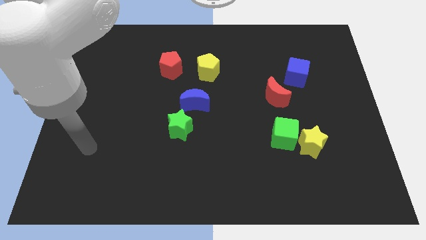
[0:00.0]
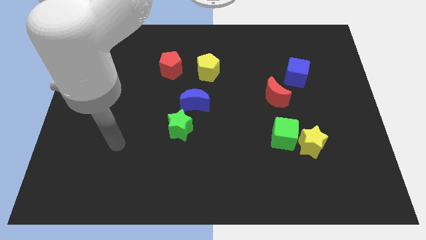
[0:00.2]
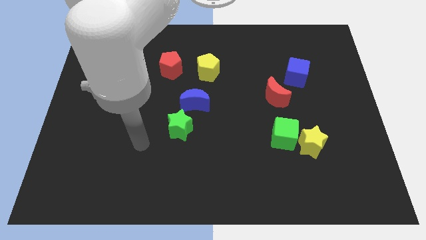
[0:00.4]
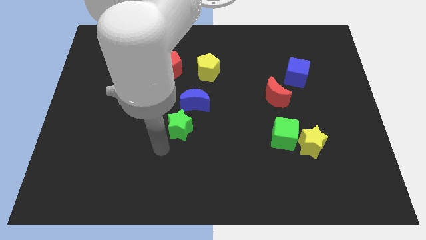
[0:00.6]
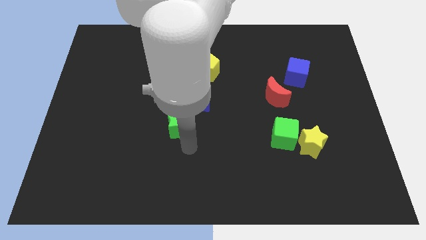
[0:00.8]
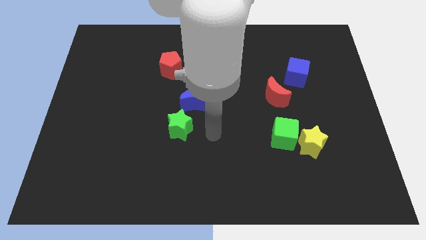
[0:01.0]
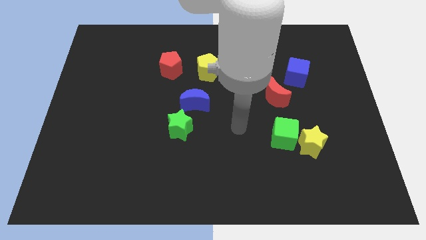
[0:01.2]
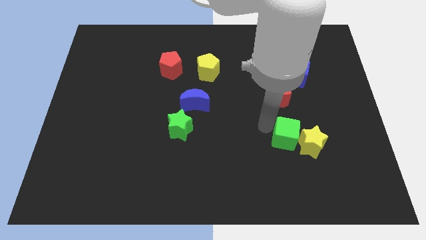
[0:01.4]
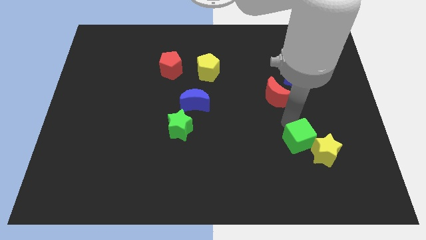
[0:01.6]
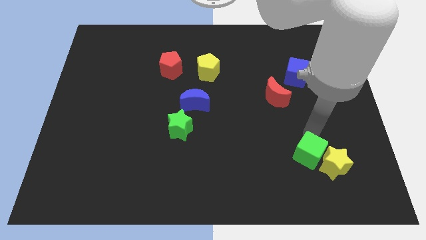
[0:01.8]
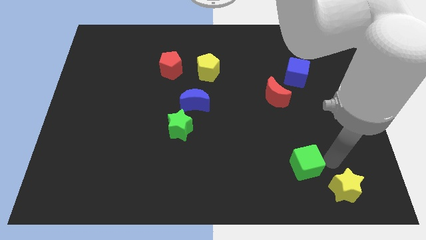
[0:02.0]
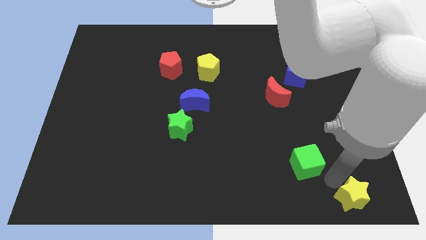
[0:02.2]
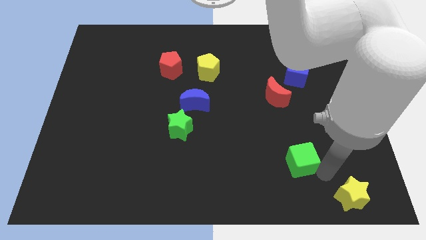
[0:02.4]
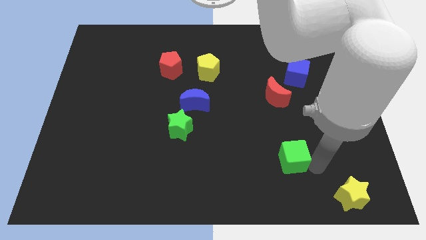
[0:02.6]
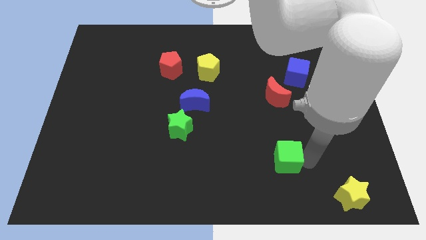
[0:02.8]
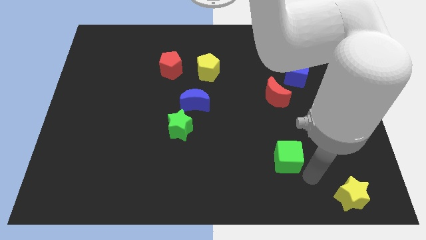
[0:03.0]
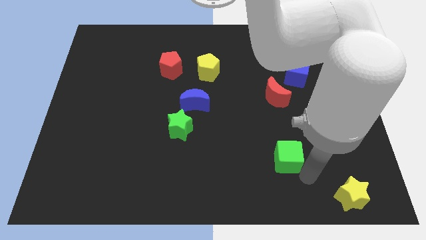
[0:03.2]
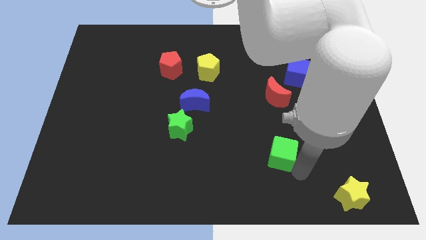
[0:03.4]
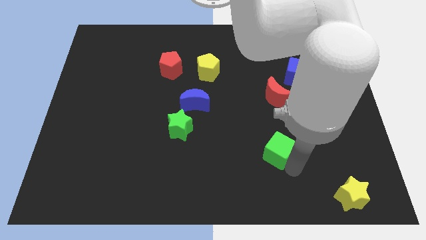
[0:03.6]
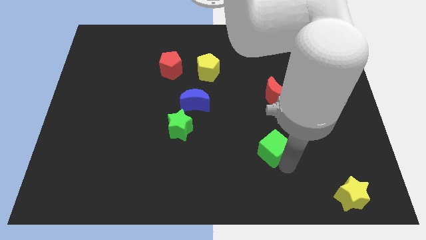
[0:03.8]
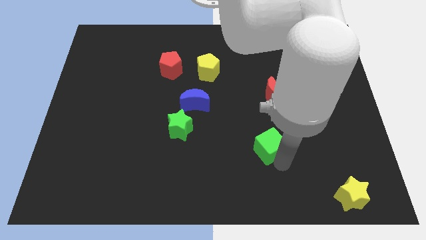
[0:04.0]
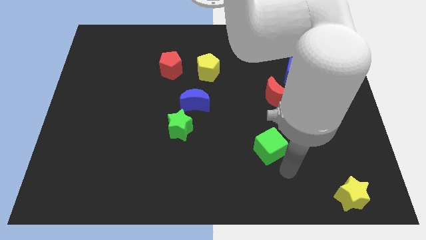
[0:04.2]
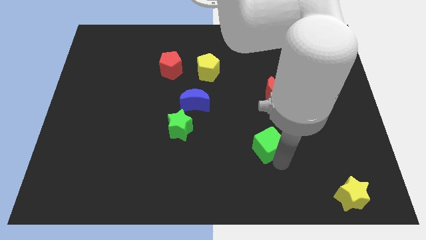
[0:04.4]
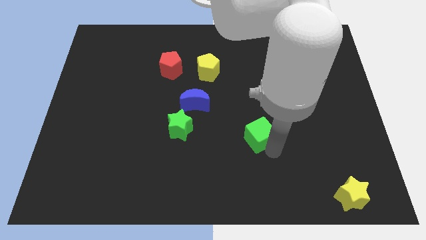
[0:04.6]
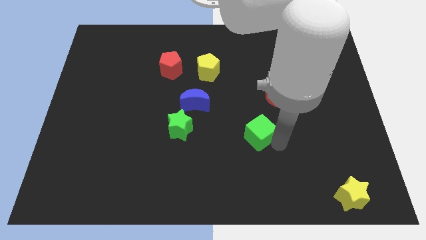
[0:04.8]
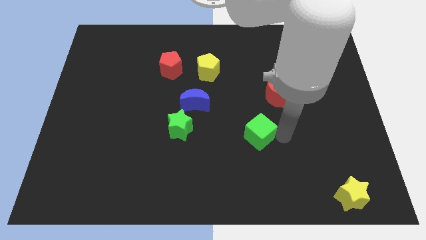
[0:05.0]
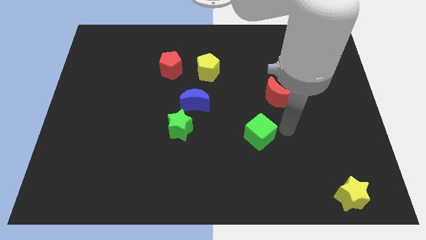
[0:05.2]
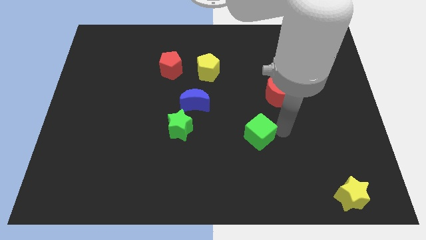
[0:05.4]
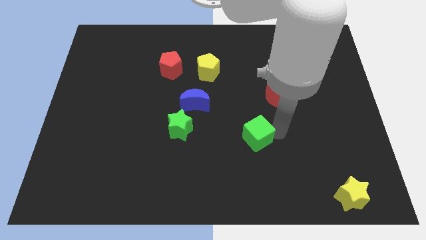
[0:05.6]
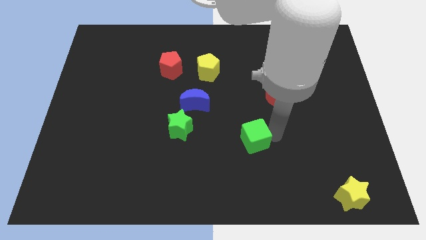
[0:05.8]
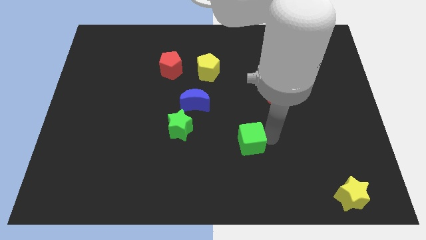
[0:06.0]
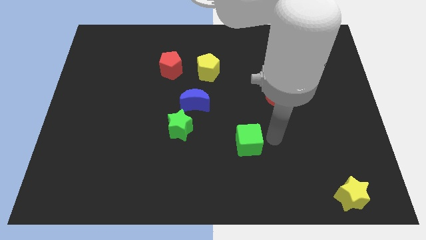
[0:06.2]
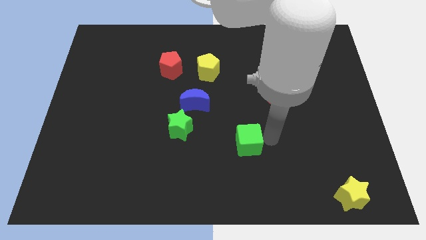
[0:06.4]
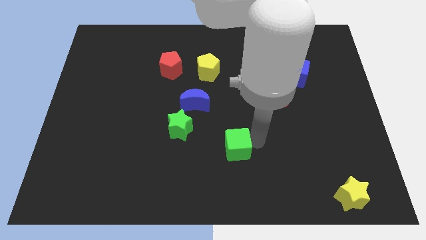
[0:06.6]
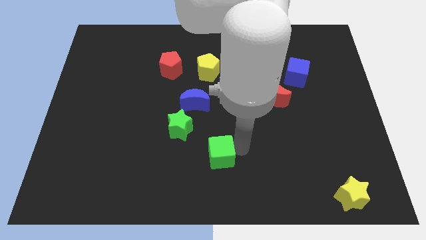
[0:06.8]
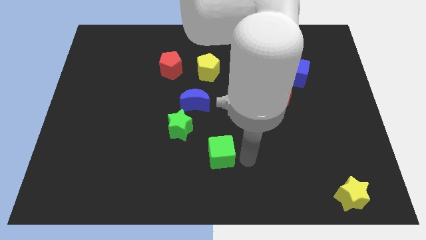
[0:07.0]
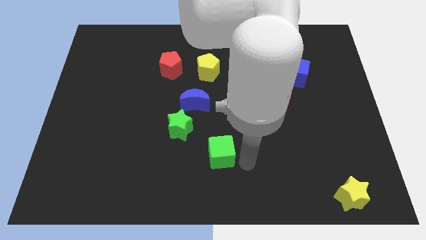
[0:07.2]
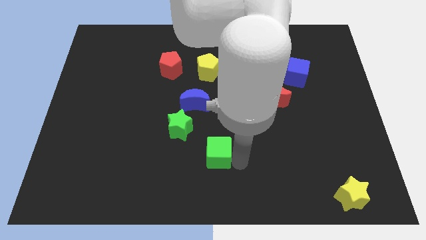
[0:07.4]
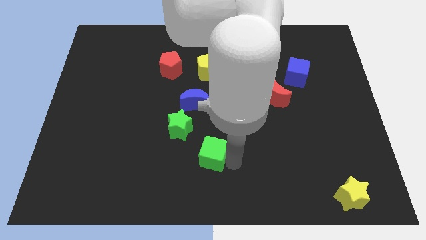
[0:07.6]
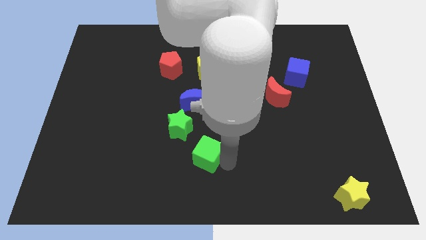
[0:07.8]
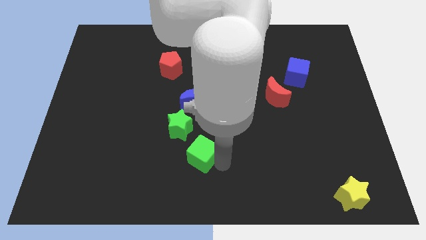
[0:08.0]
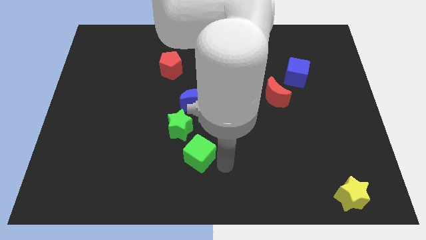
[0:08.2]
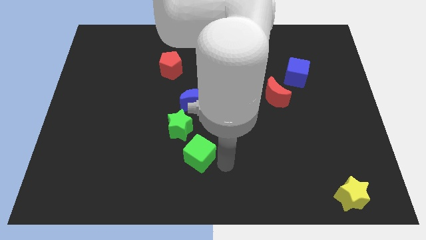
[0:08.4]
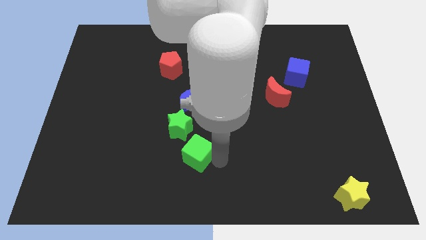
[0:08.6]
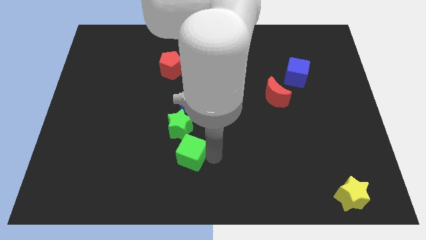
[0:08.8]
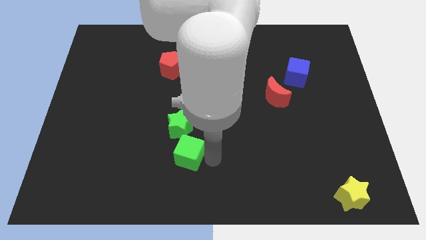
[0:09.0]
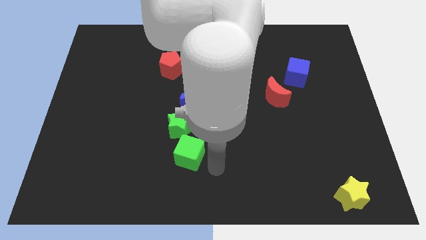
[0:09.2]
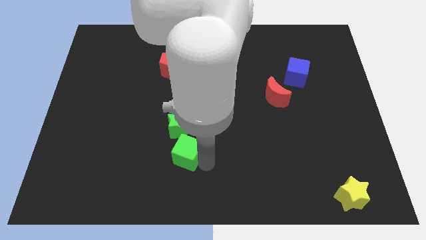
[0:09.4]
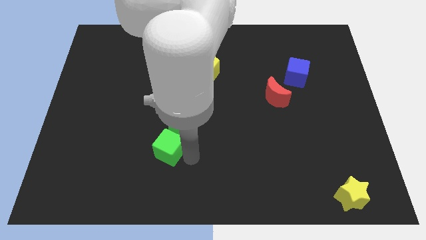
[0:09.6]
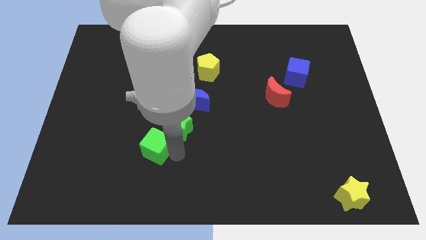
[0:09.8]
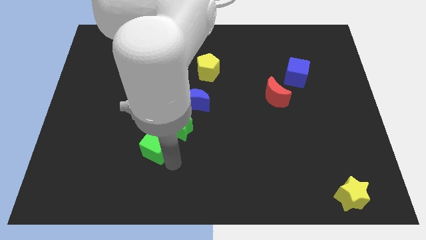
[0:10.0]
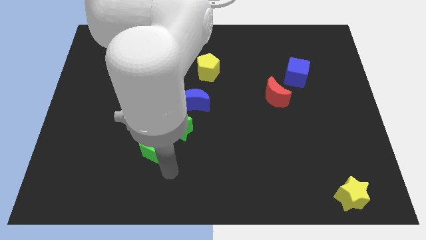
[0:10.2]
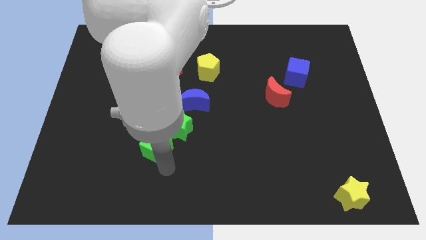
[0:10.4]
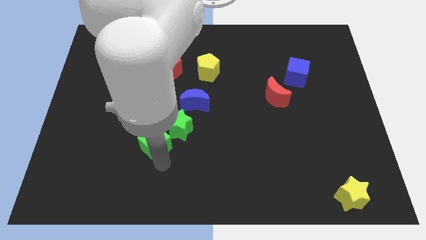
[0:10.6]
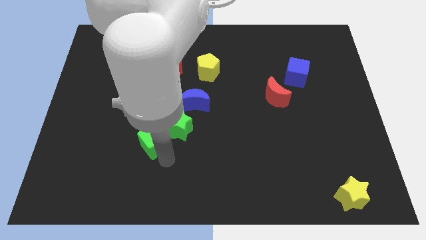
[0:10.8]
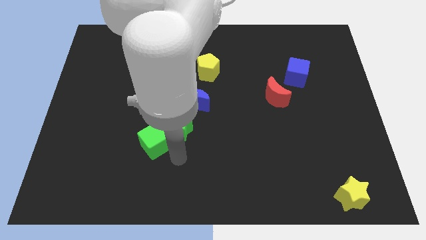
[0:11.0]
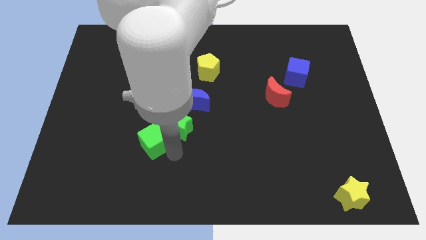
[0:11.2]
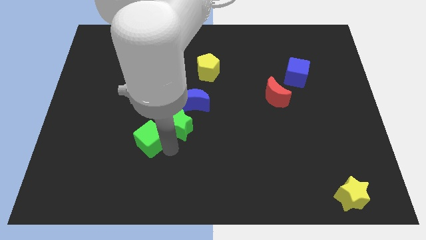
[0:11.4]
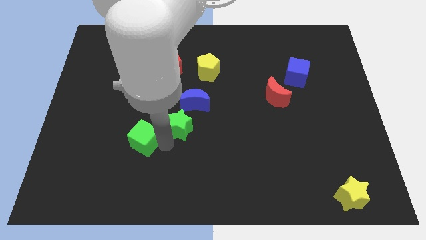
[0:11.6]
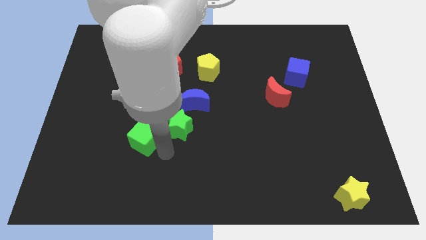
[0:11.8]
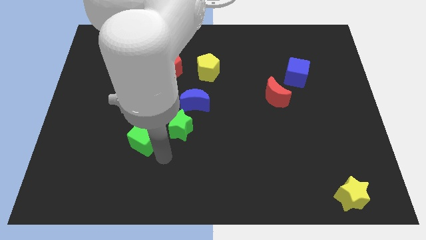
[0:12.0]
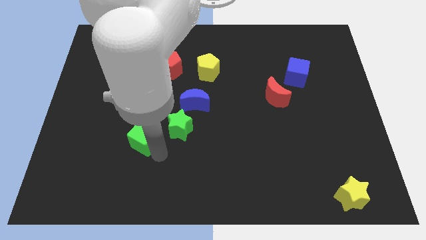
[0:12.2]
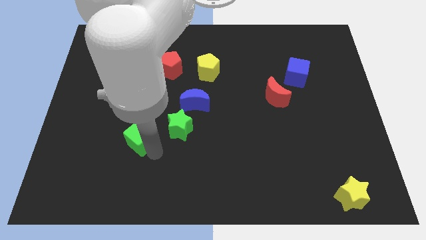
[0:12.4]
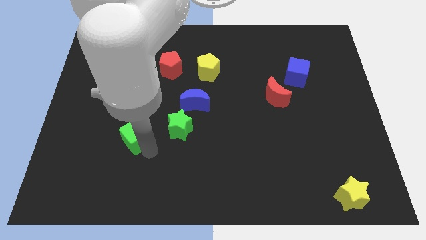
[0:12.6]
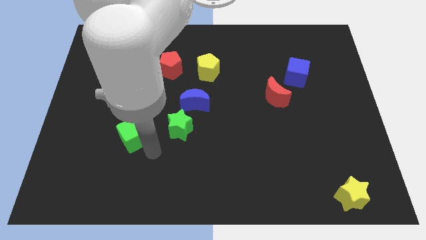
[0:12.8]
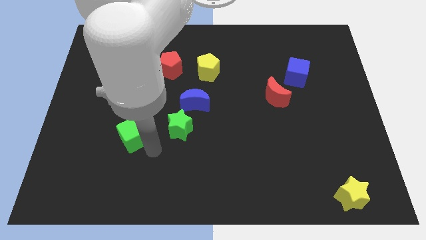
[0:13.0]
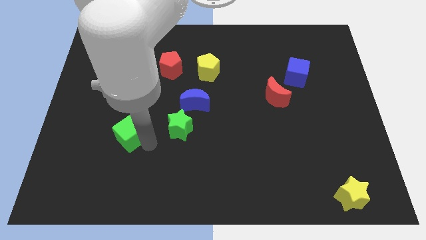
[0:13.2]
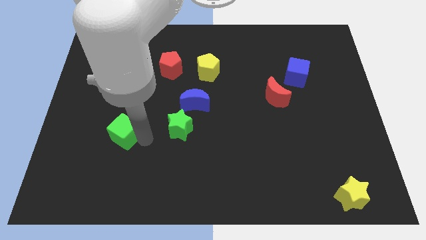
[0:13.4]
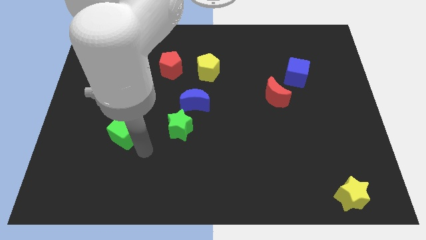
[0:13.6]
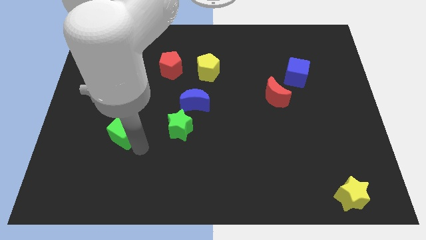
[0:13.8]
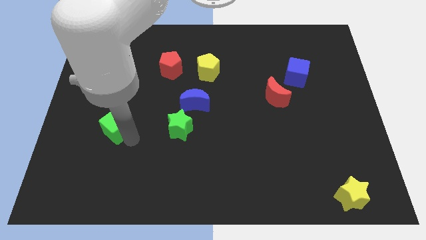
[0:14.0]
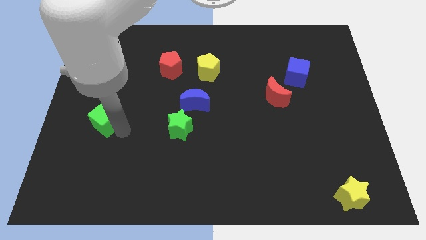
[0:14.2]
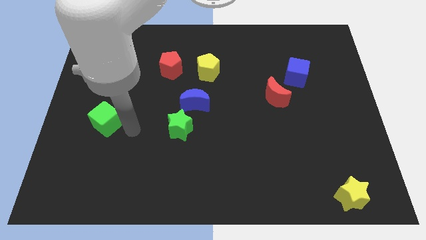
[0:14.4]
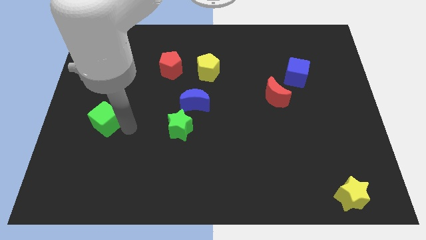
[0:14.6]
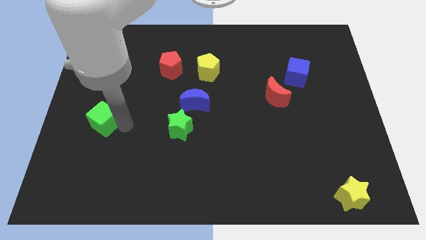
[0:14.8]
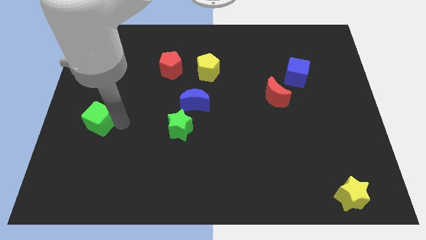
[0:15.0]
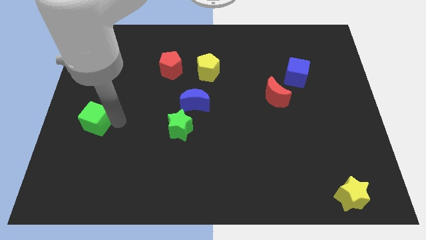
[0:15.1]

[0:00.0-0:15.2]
push the green cube to the left side of the board
